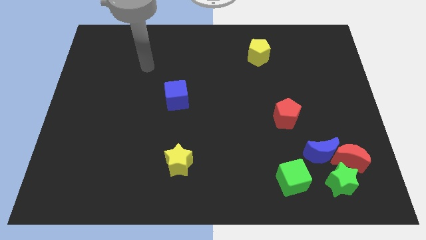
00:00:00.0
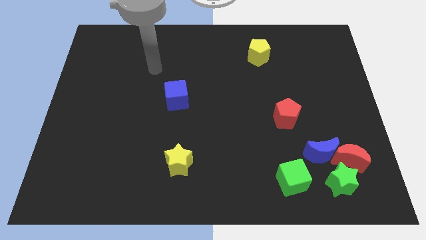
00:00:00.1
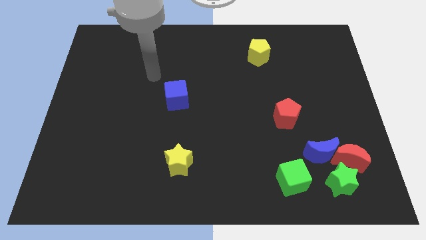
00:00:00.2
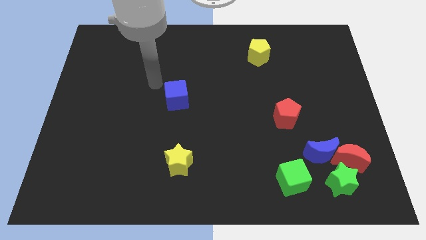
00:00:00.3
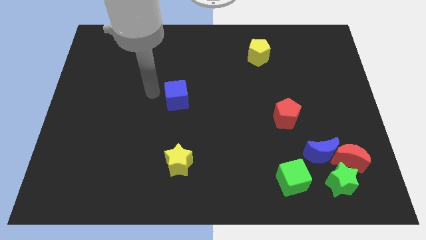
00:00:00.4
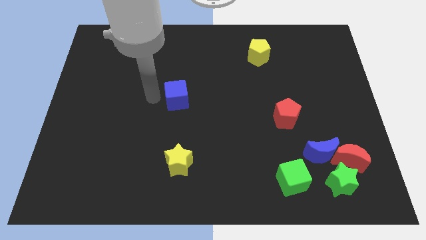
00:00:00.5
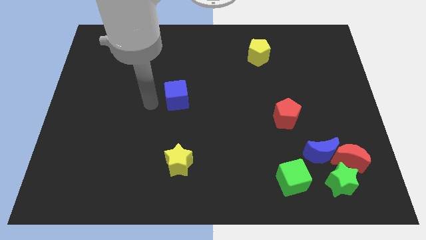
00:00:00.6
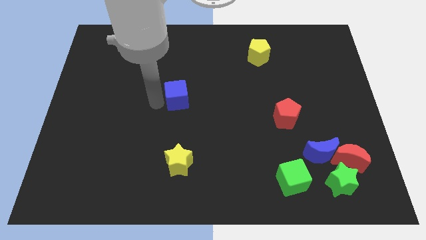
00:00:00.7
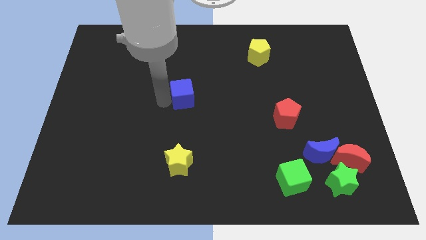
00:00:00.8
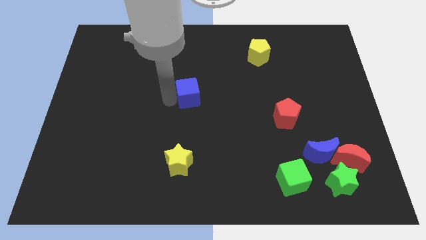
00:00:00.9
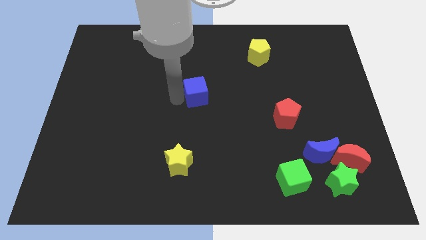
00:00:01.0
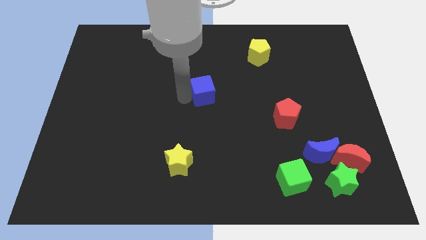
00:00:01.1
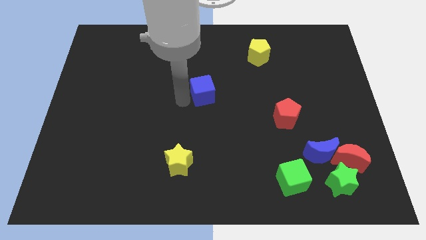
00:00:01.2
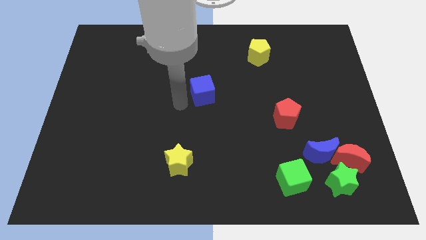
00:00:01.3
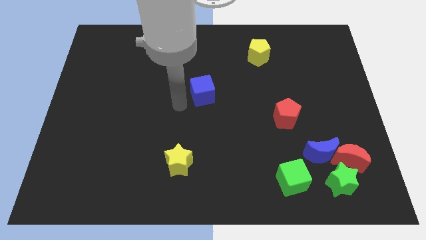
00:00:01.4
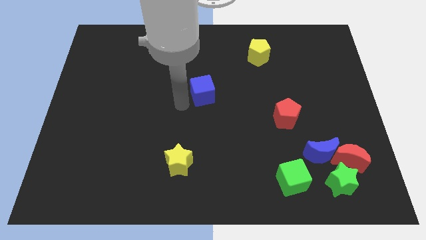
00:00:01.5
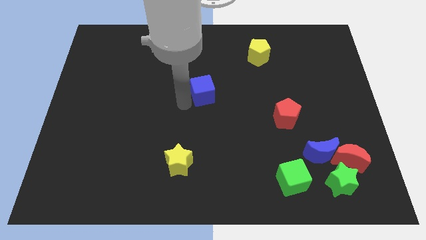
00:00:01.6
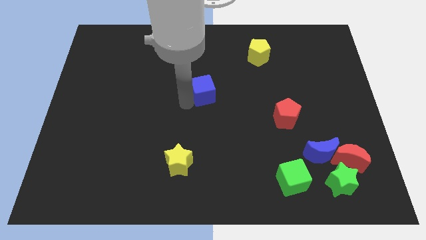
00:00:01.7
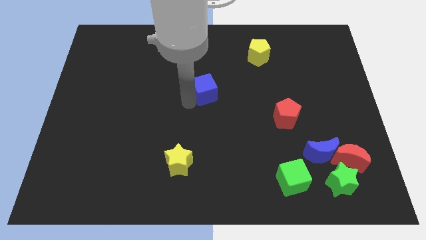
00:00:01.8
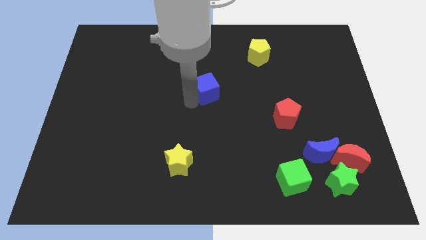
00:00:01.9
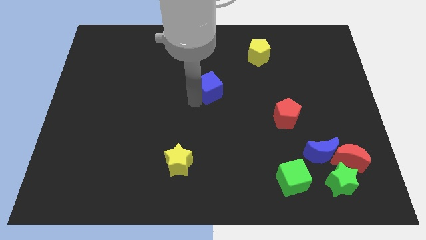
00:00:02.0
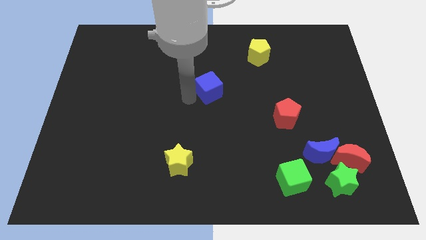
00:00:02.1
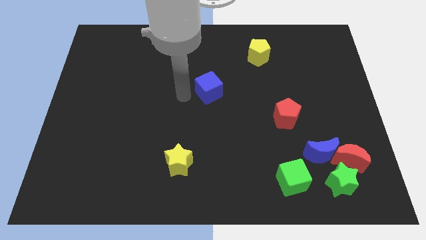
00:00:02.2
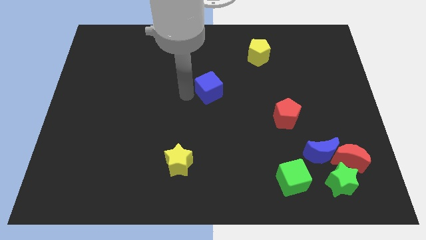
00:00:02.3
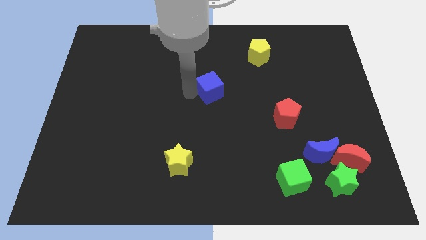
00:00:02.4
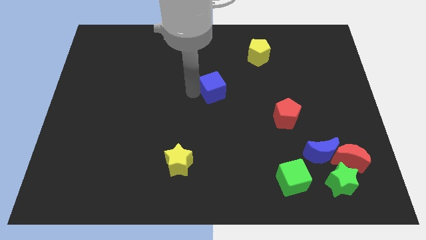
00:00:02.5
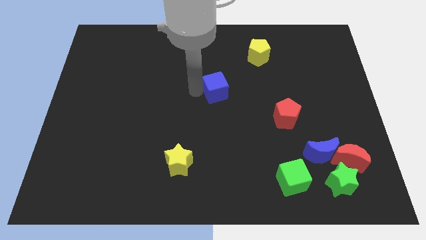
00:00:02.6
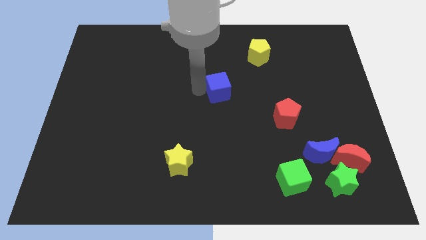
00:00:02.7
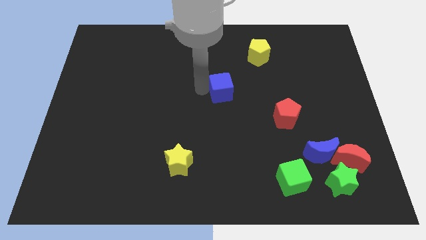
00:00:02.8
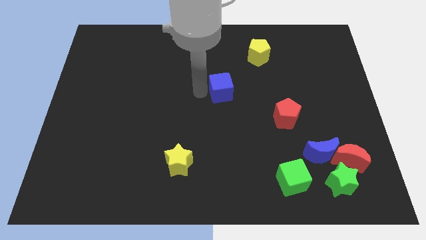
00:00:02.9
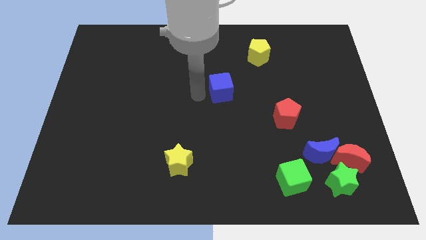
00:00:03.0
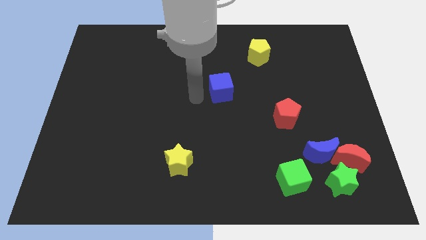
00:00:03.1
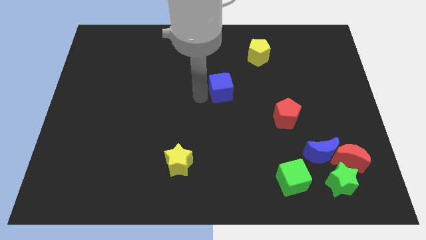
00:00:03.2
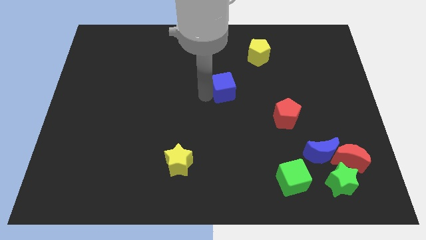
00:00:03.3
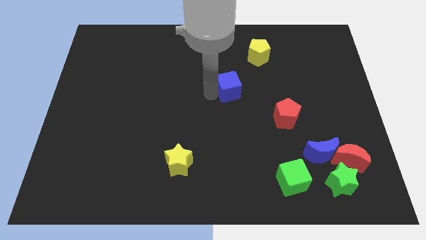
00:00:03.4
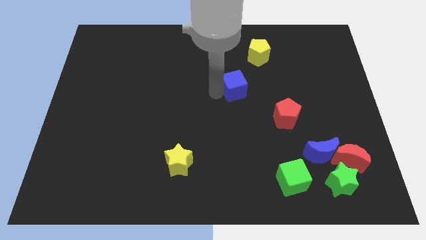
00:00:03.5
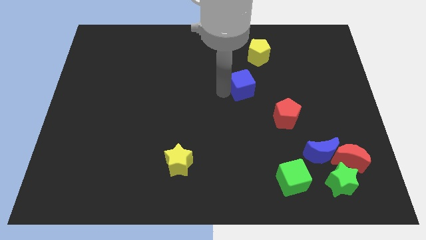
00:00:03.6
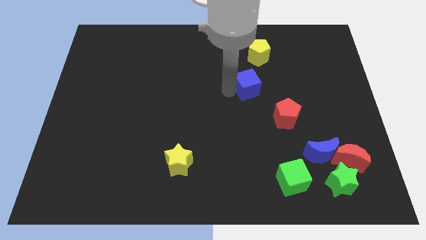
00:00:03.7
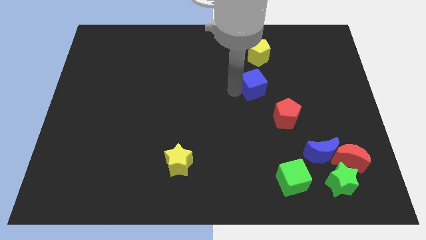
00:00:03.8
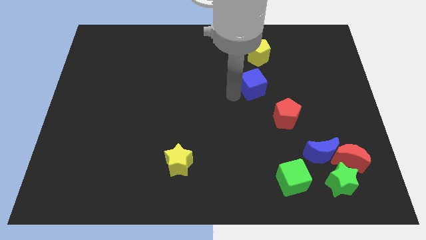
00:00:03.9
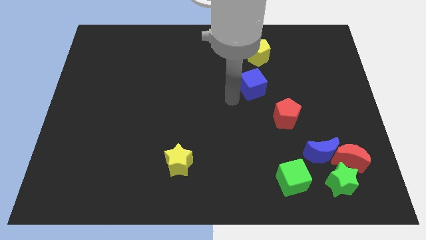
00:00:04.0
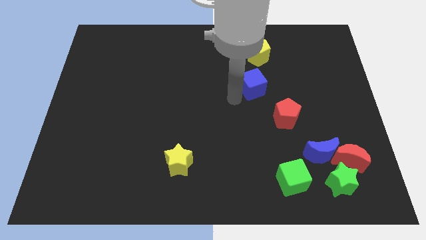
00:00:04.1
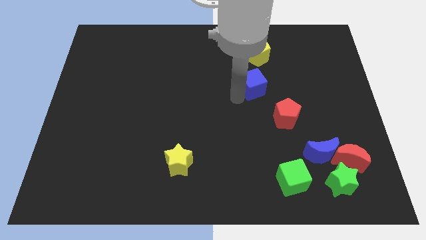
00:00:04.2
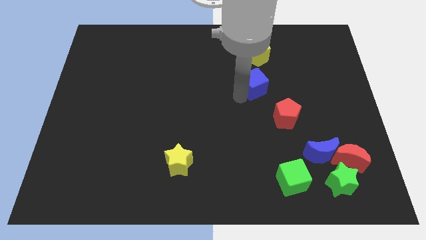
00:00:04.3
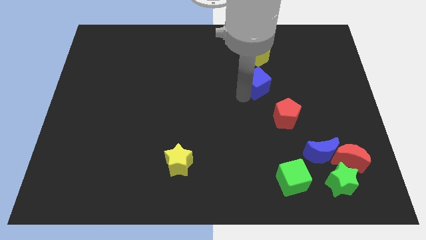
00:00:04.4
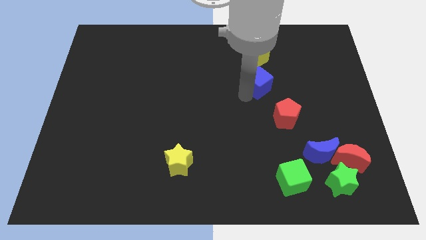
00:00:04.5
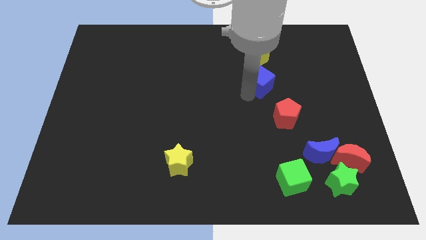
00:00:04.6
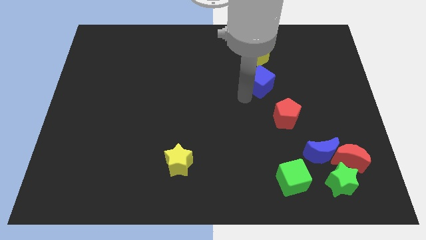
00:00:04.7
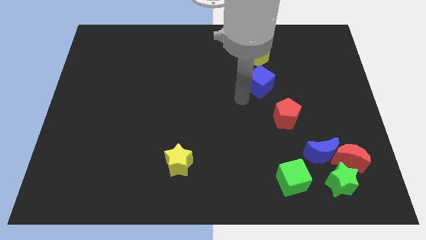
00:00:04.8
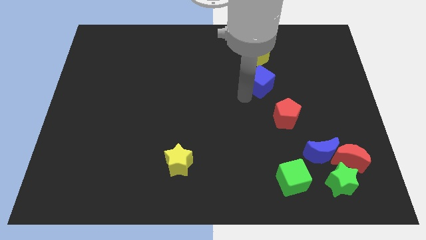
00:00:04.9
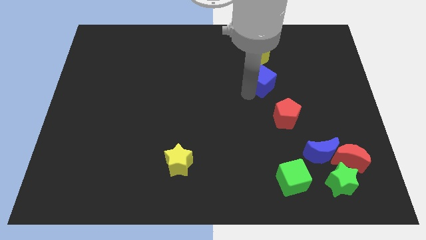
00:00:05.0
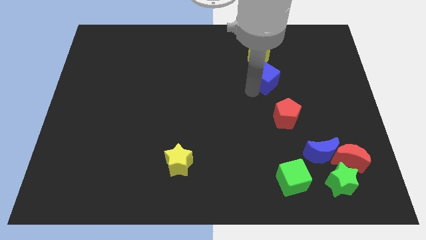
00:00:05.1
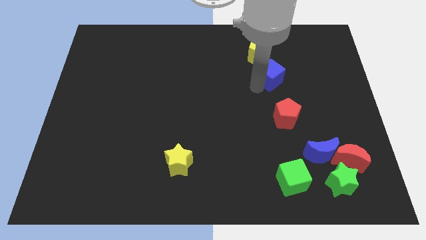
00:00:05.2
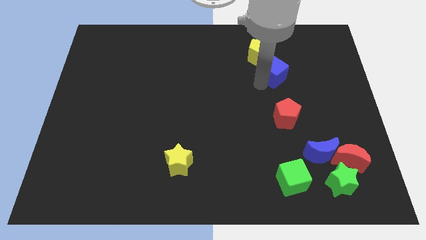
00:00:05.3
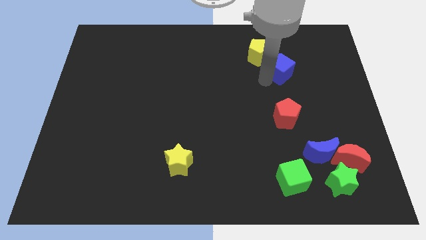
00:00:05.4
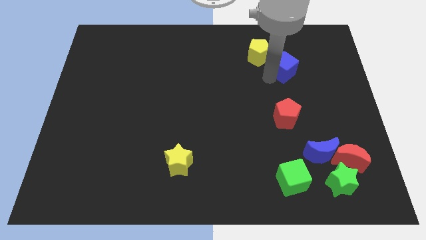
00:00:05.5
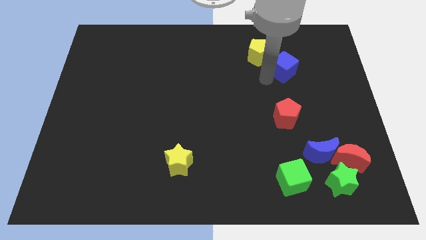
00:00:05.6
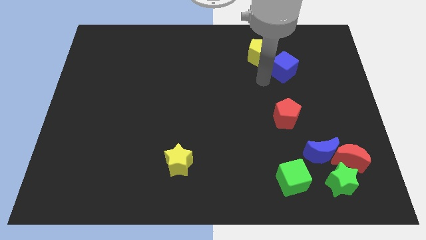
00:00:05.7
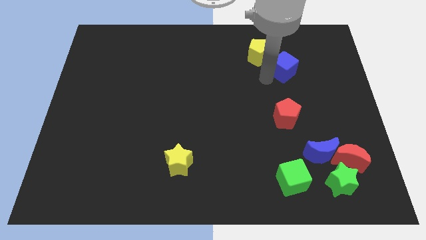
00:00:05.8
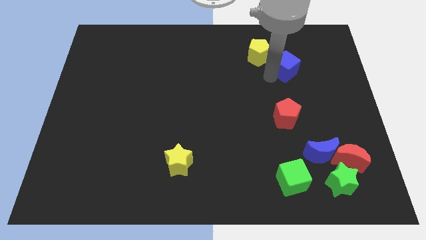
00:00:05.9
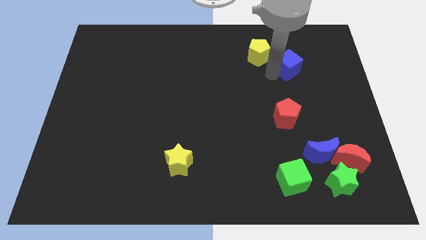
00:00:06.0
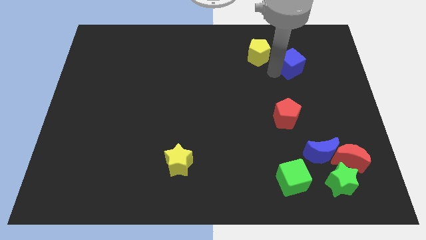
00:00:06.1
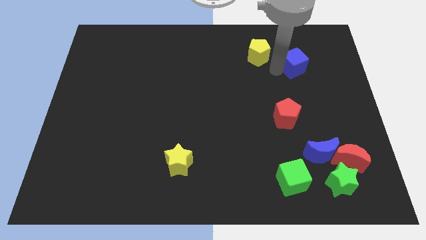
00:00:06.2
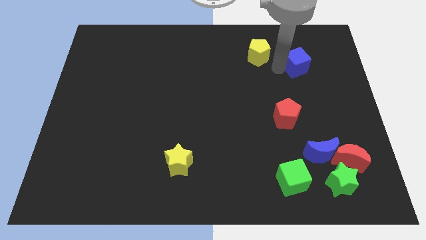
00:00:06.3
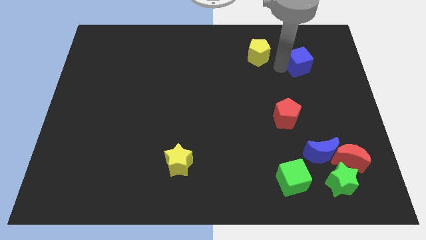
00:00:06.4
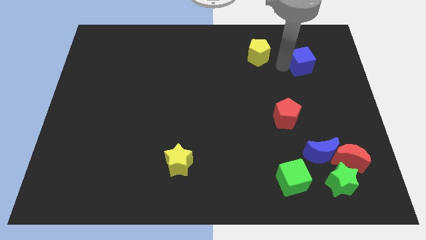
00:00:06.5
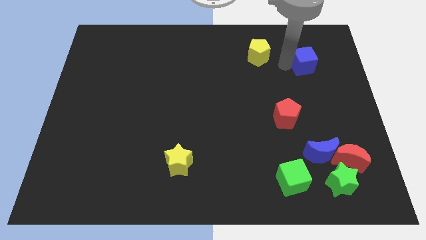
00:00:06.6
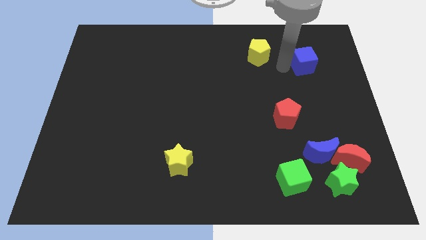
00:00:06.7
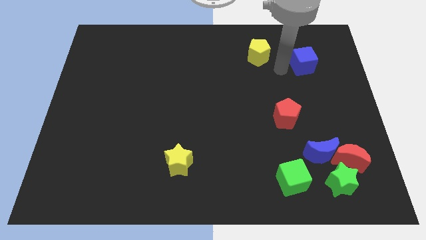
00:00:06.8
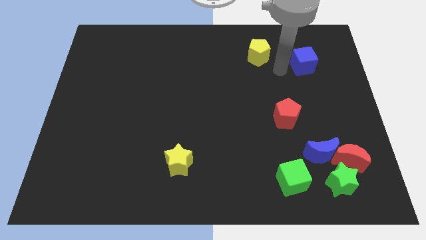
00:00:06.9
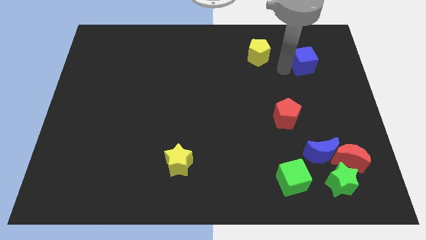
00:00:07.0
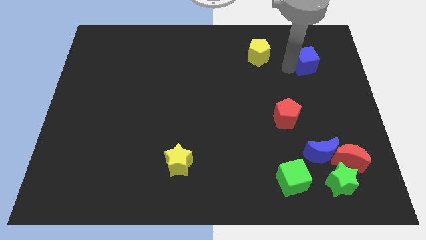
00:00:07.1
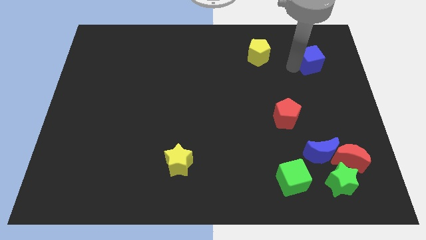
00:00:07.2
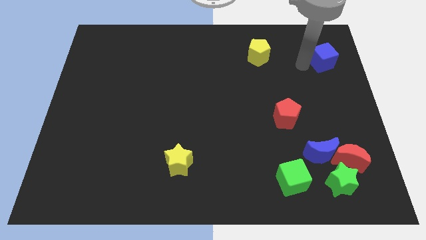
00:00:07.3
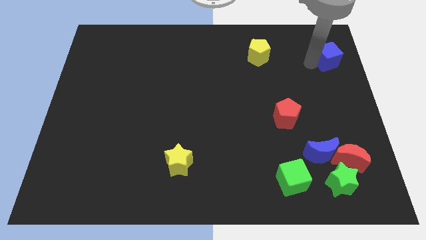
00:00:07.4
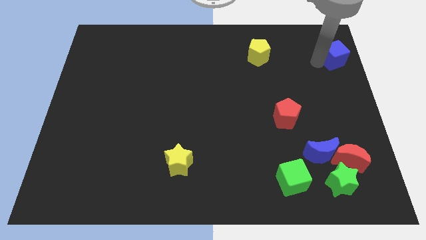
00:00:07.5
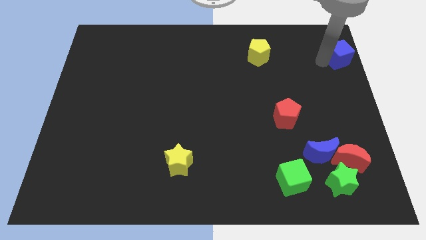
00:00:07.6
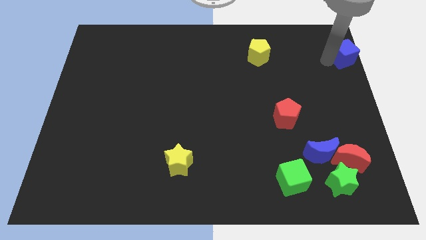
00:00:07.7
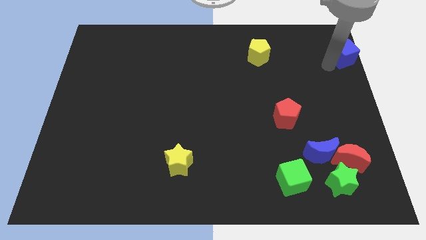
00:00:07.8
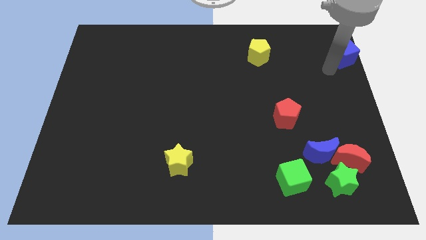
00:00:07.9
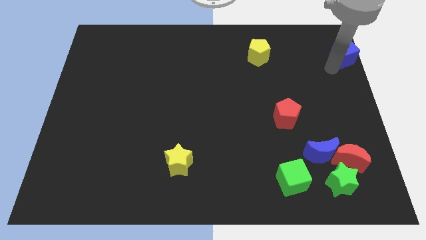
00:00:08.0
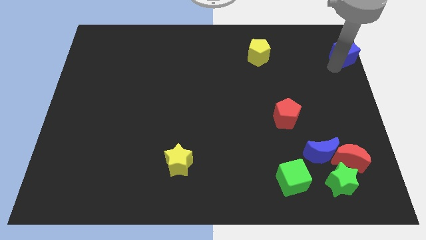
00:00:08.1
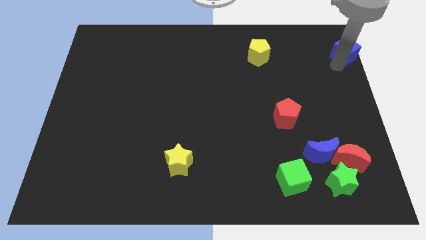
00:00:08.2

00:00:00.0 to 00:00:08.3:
slide the blue cube to the upper right corner
